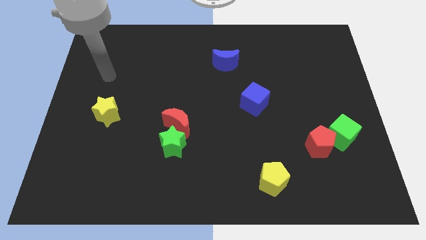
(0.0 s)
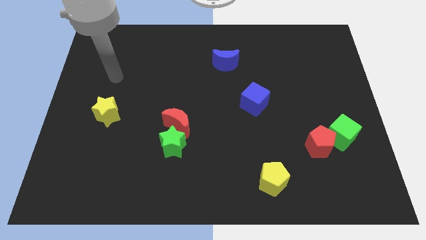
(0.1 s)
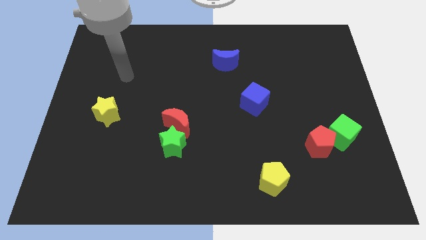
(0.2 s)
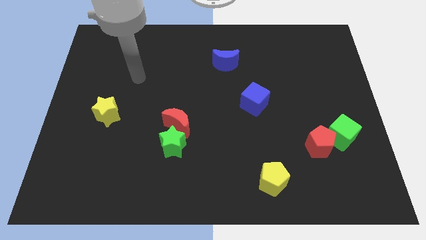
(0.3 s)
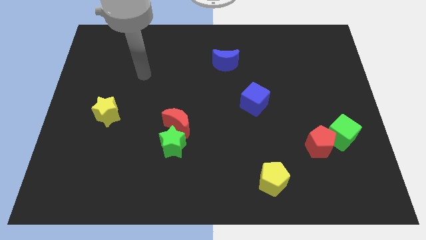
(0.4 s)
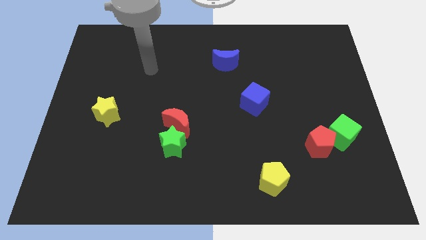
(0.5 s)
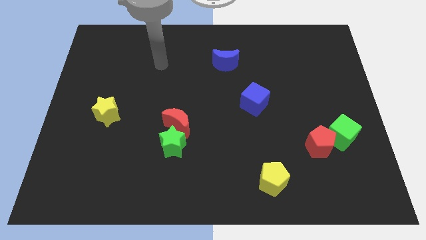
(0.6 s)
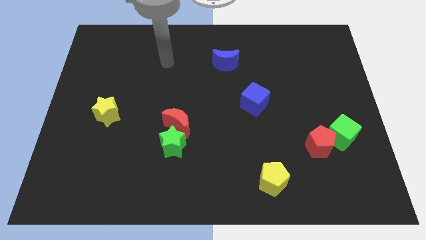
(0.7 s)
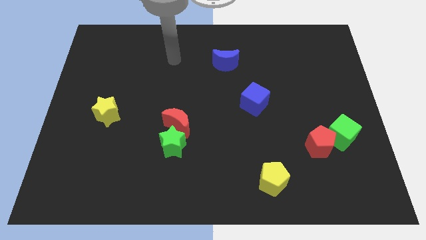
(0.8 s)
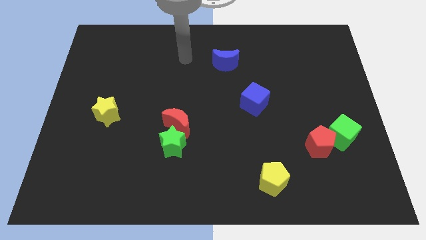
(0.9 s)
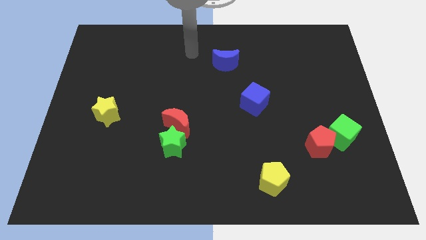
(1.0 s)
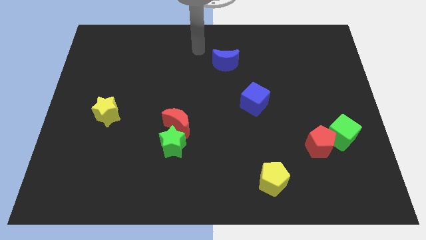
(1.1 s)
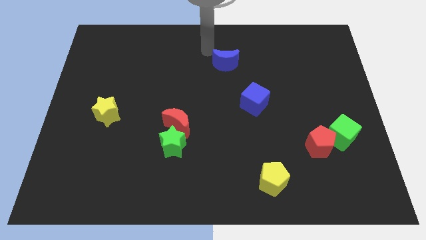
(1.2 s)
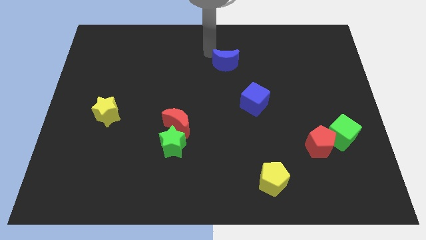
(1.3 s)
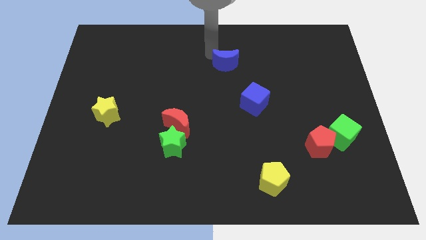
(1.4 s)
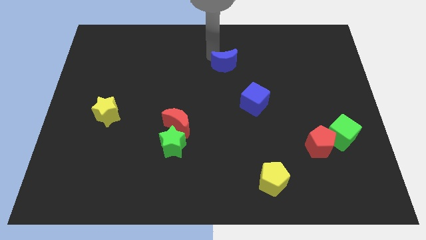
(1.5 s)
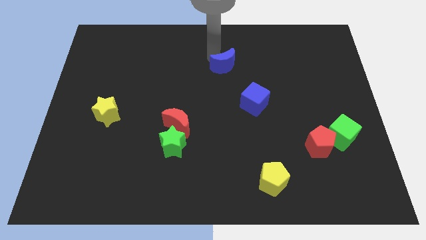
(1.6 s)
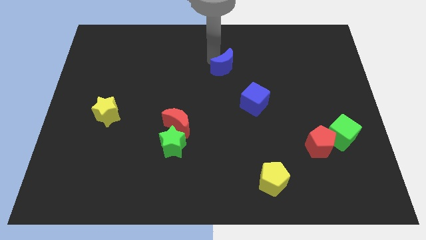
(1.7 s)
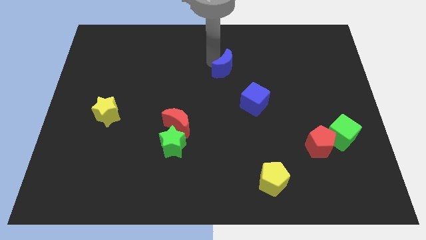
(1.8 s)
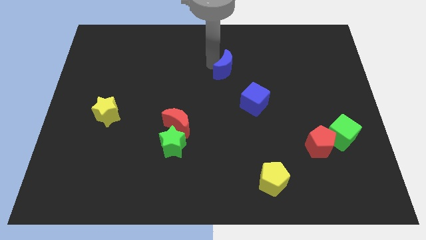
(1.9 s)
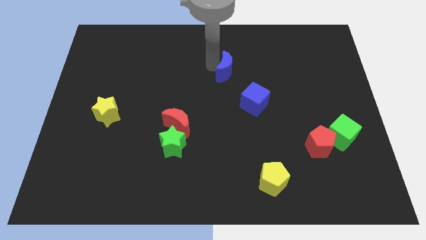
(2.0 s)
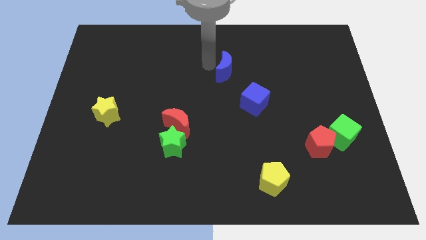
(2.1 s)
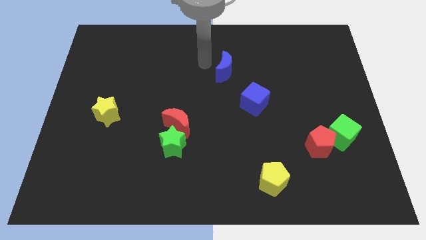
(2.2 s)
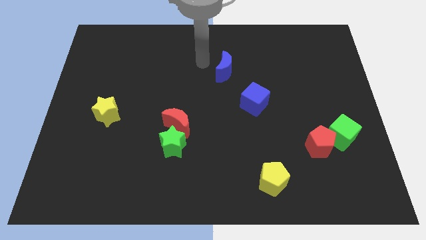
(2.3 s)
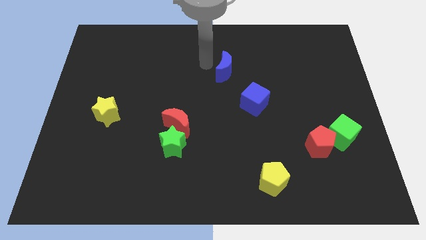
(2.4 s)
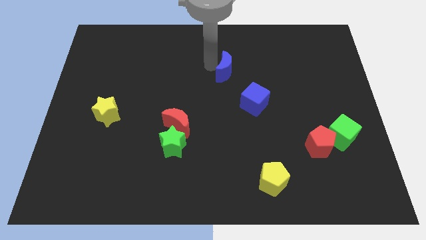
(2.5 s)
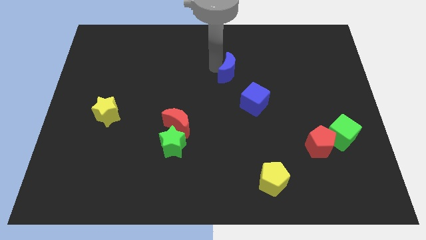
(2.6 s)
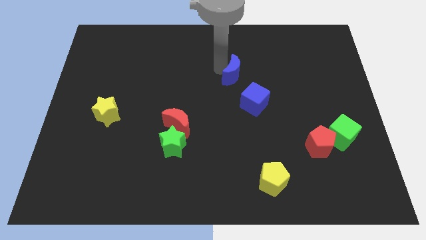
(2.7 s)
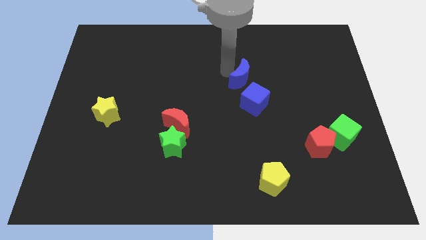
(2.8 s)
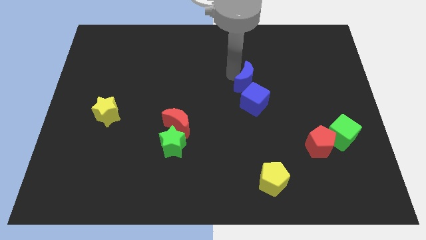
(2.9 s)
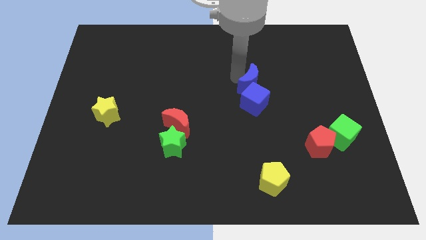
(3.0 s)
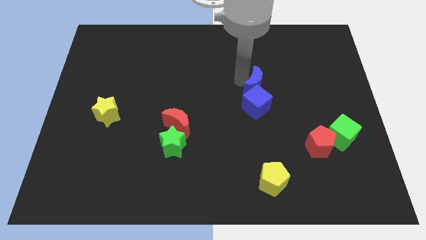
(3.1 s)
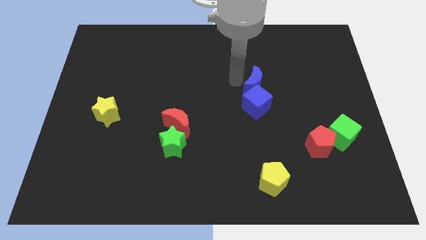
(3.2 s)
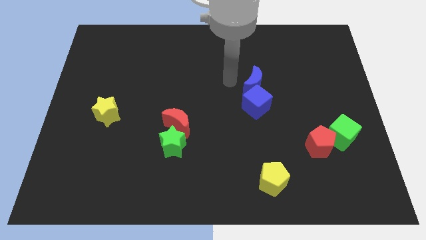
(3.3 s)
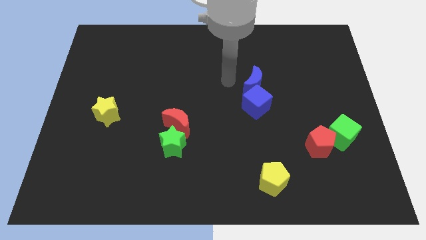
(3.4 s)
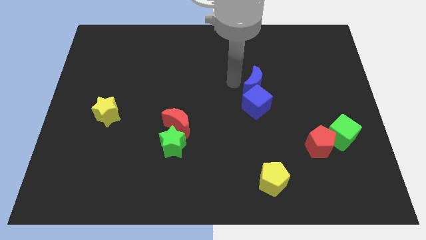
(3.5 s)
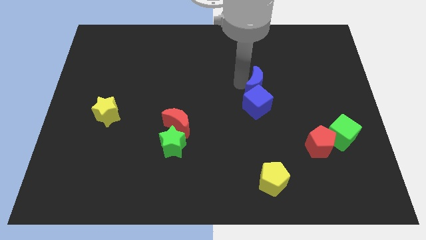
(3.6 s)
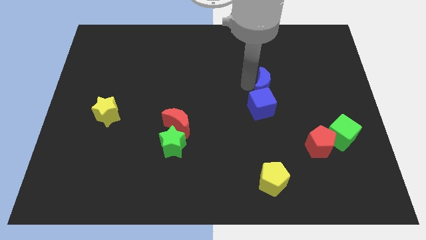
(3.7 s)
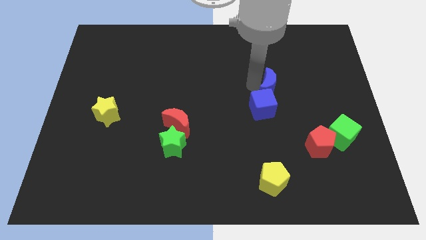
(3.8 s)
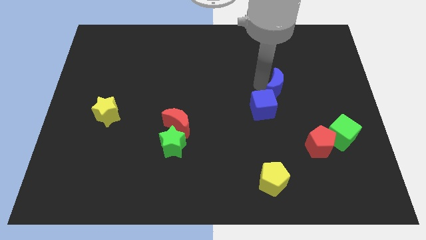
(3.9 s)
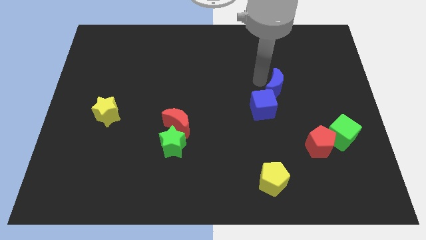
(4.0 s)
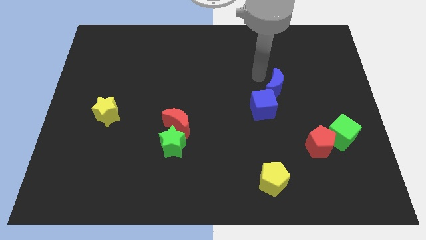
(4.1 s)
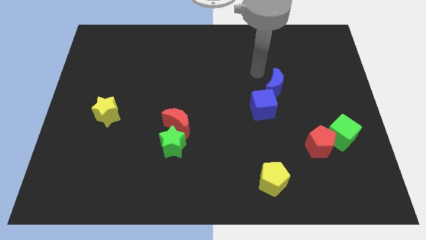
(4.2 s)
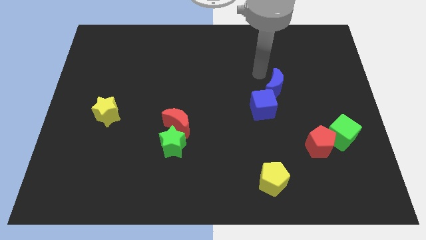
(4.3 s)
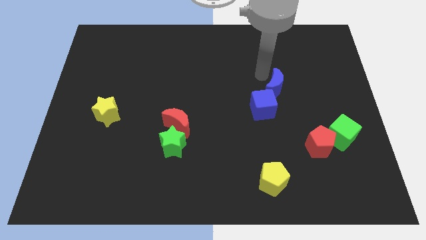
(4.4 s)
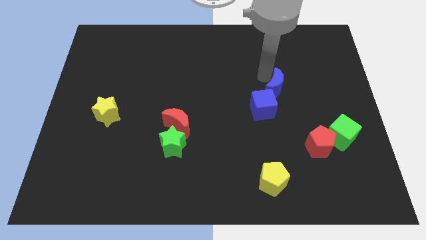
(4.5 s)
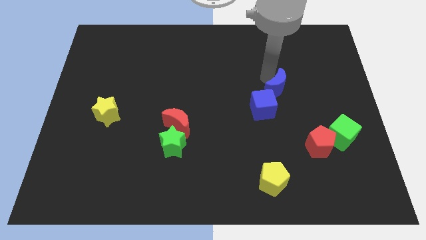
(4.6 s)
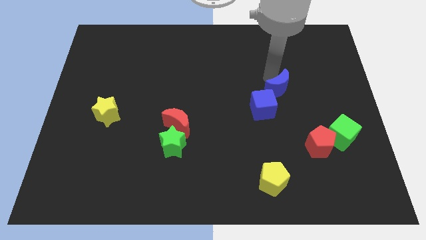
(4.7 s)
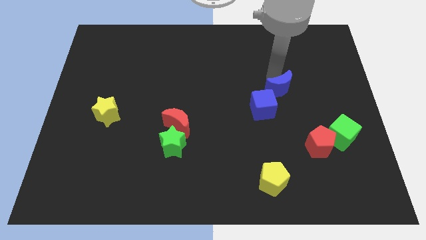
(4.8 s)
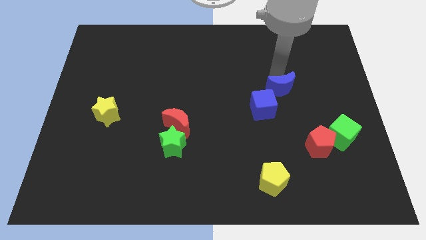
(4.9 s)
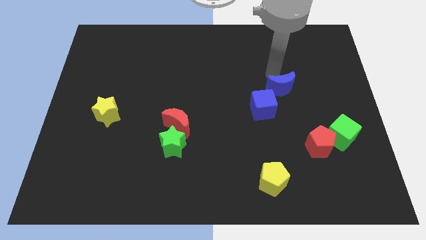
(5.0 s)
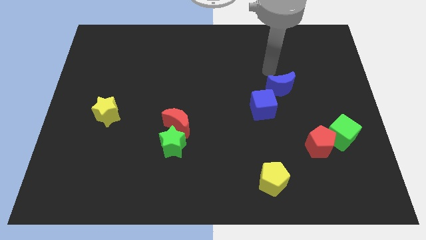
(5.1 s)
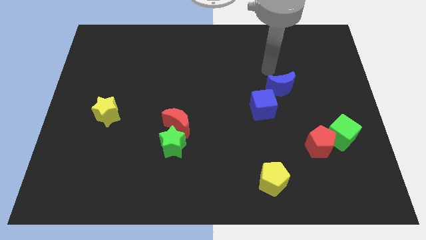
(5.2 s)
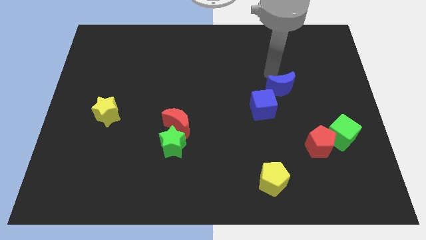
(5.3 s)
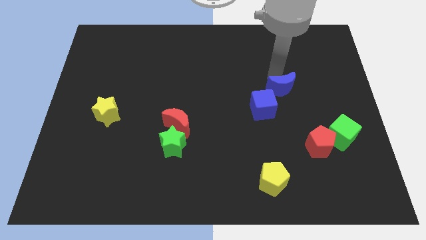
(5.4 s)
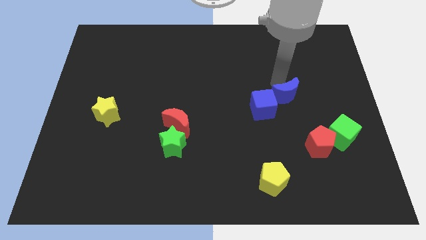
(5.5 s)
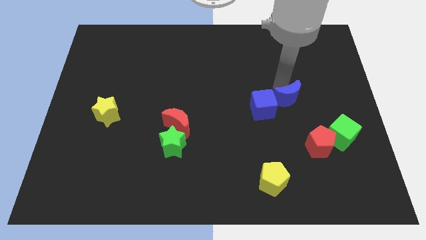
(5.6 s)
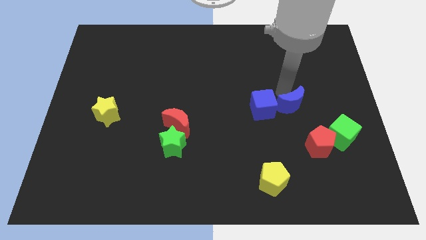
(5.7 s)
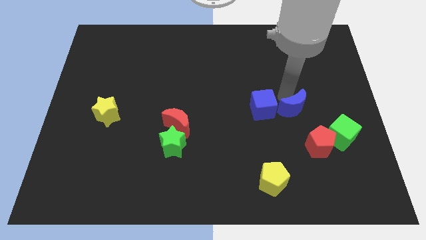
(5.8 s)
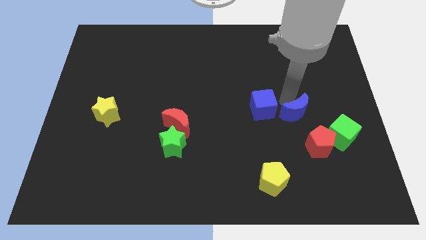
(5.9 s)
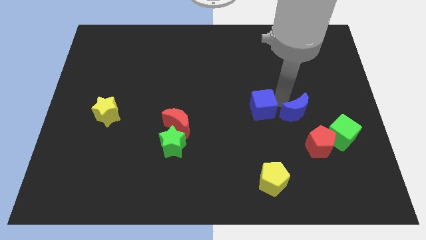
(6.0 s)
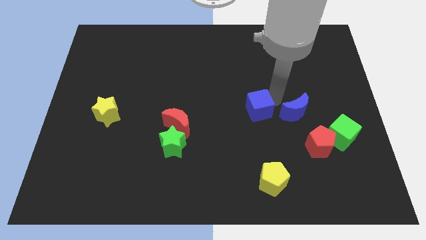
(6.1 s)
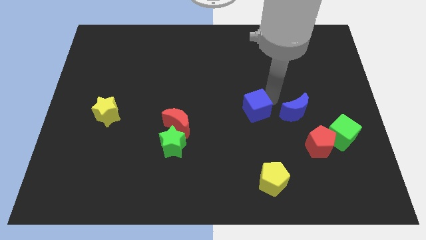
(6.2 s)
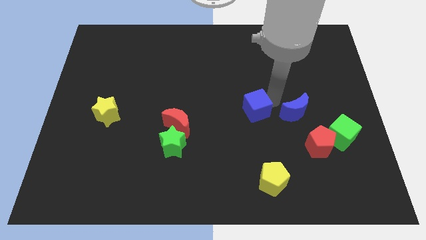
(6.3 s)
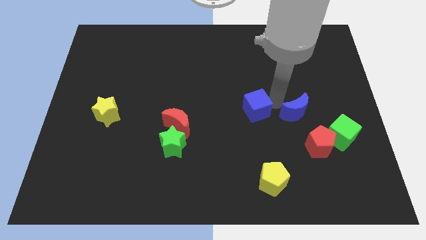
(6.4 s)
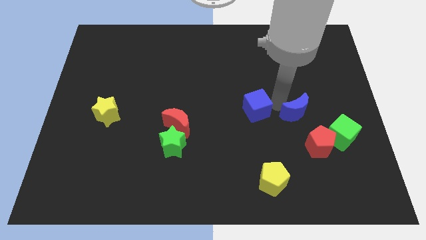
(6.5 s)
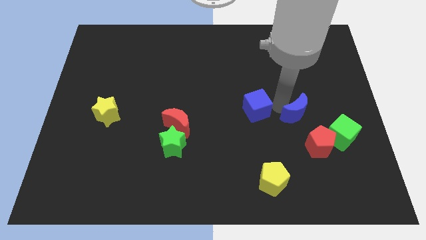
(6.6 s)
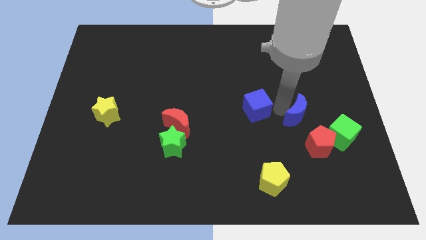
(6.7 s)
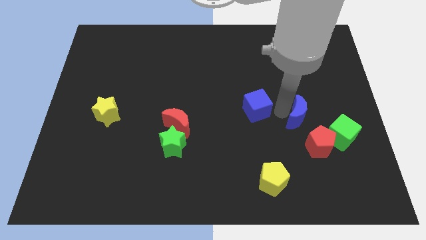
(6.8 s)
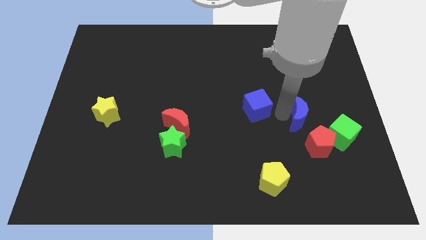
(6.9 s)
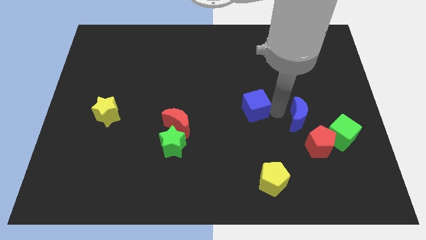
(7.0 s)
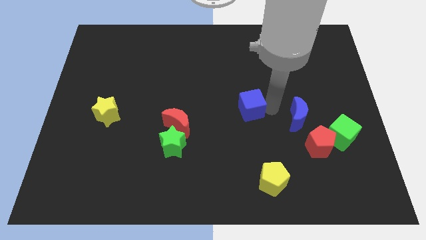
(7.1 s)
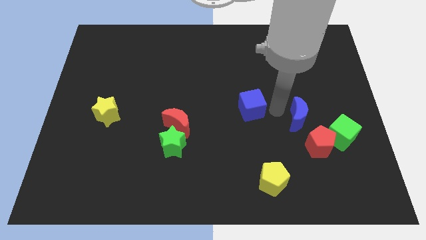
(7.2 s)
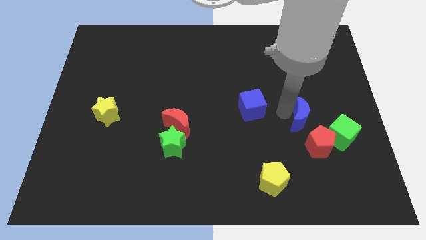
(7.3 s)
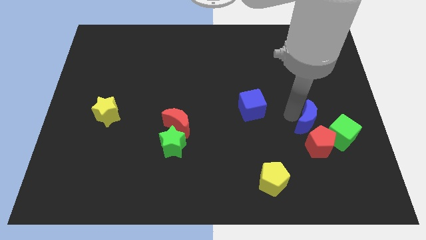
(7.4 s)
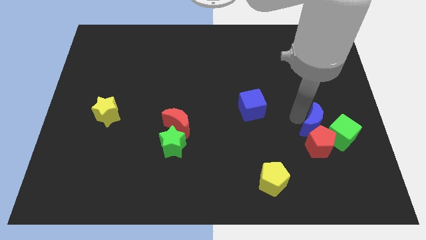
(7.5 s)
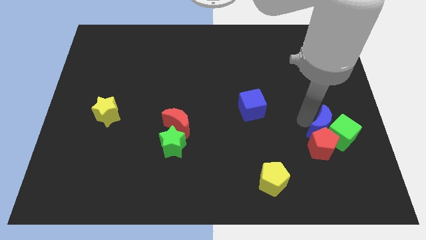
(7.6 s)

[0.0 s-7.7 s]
put the blue moon to the green cube
